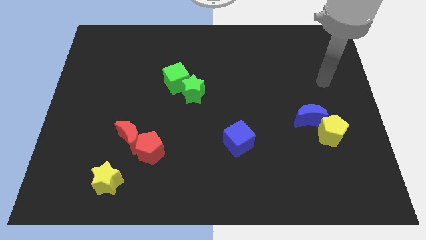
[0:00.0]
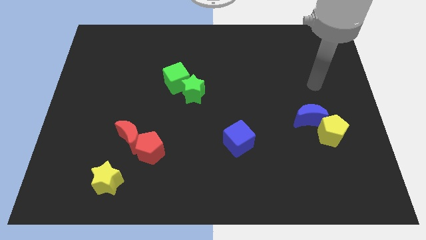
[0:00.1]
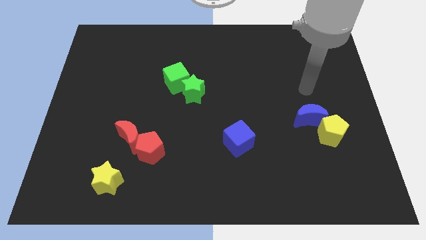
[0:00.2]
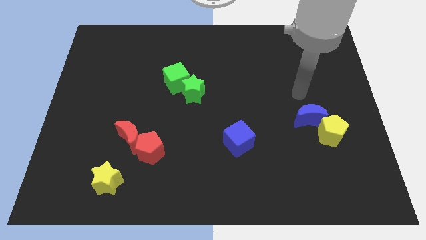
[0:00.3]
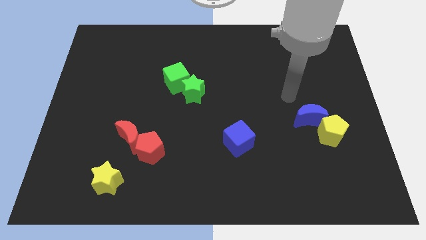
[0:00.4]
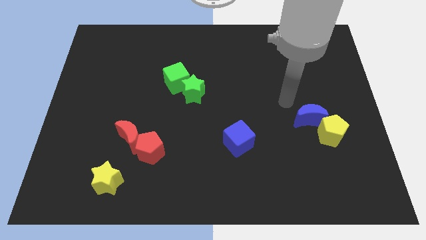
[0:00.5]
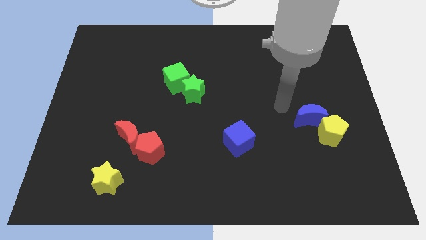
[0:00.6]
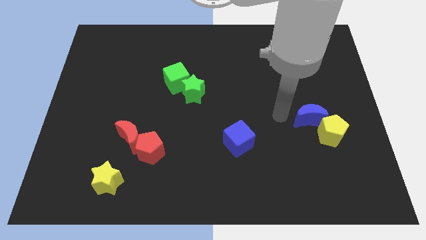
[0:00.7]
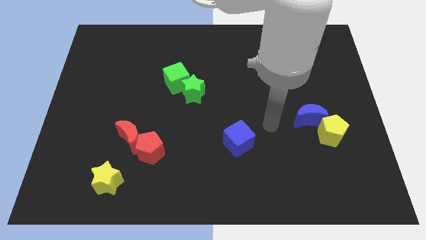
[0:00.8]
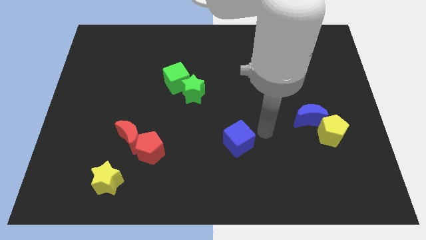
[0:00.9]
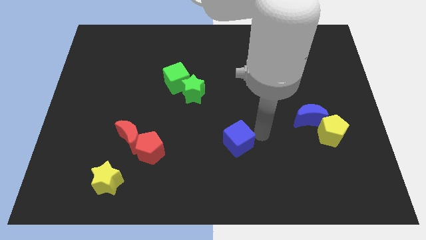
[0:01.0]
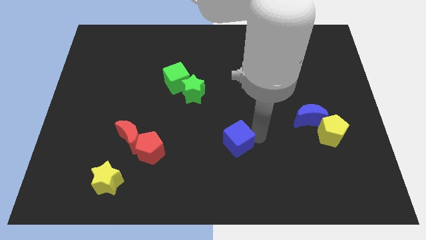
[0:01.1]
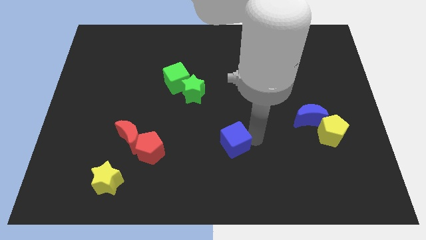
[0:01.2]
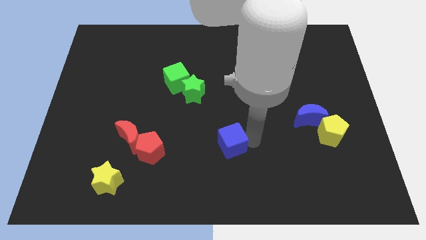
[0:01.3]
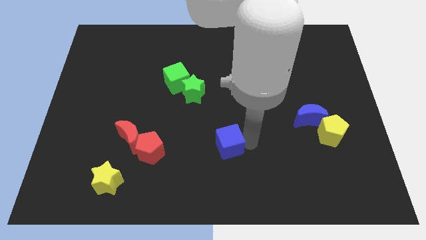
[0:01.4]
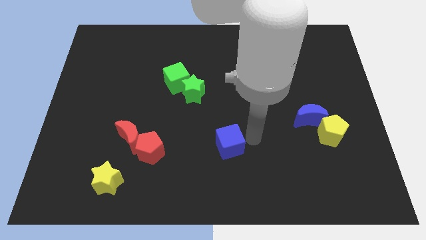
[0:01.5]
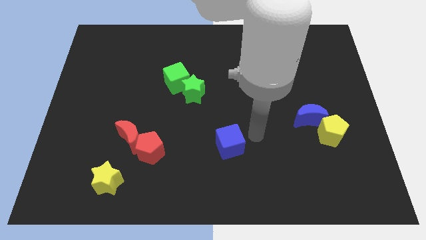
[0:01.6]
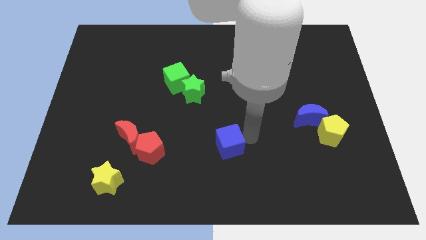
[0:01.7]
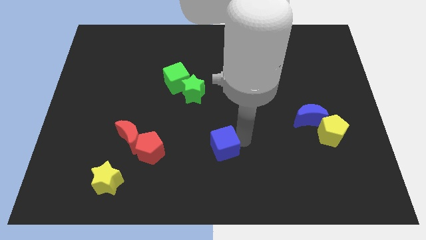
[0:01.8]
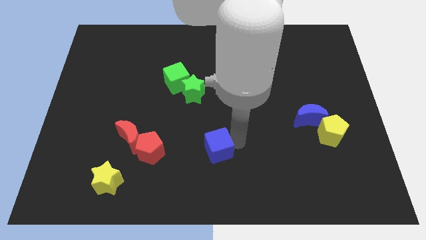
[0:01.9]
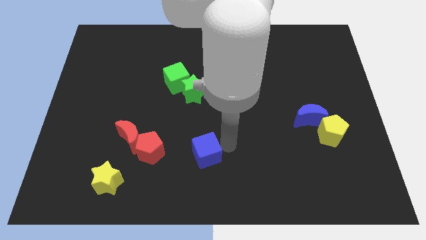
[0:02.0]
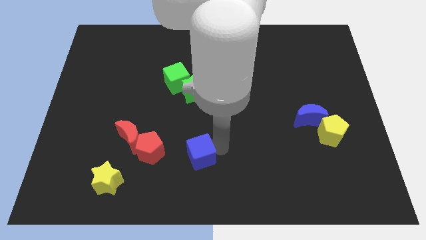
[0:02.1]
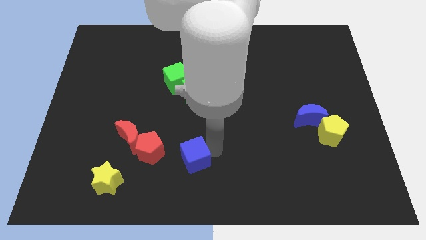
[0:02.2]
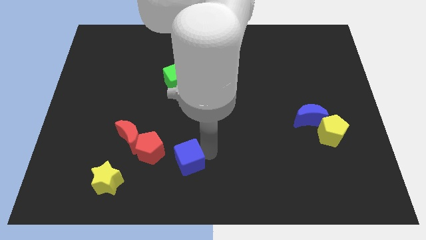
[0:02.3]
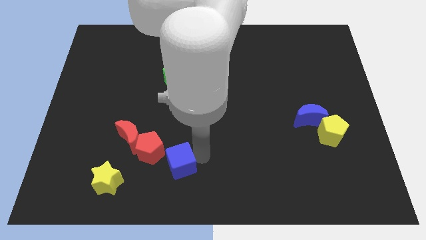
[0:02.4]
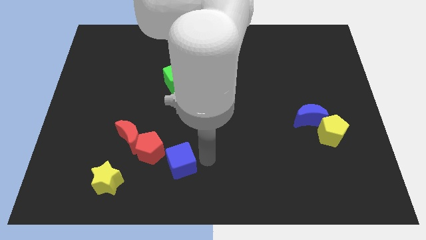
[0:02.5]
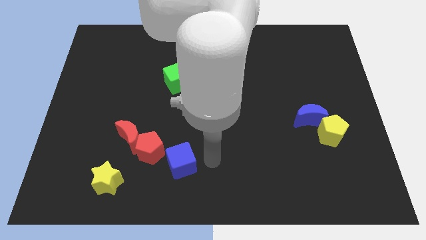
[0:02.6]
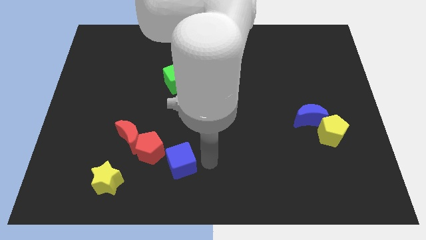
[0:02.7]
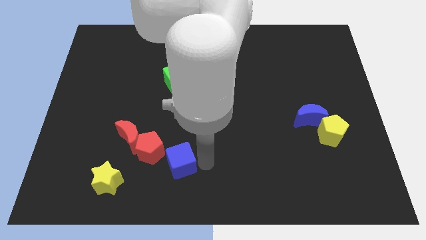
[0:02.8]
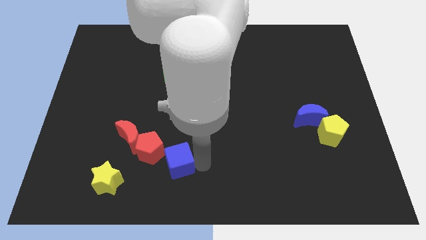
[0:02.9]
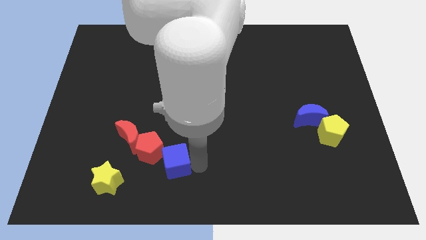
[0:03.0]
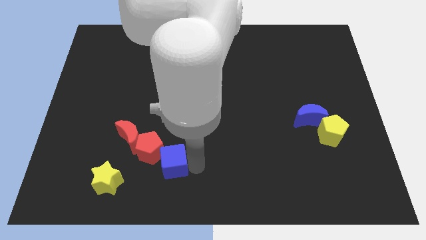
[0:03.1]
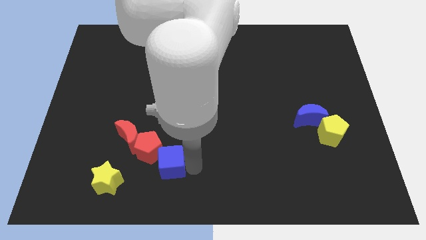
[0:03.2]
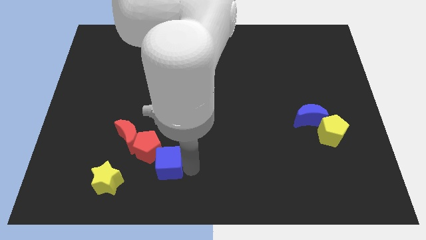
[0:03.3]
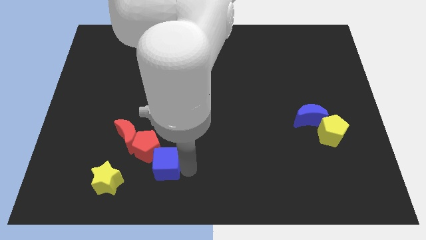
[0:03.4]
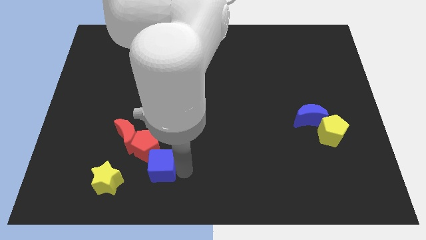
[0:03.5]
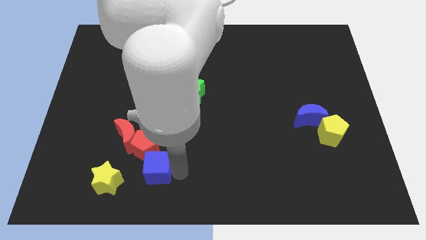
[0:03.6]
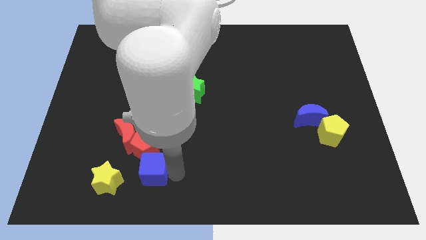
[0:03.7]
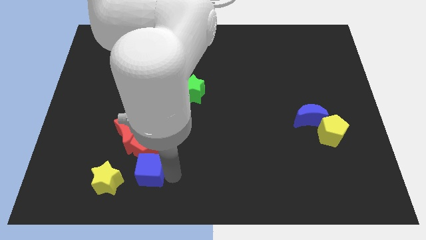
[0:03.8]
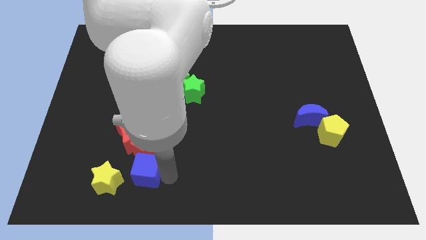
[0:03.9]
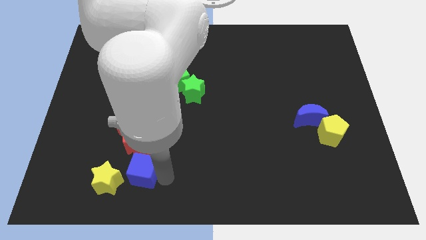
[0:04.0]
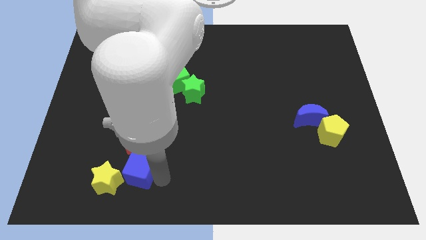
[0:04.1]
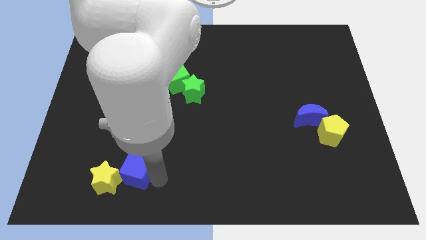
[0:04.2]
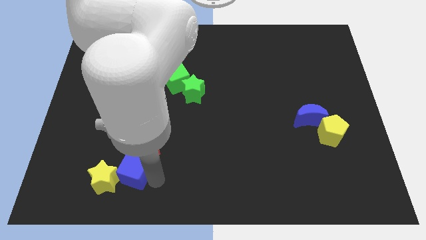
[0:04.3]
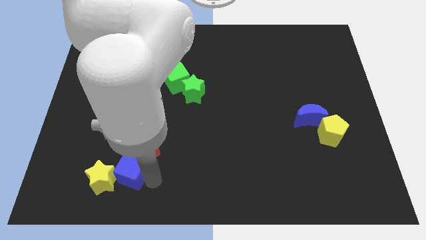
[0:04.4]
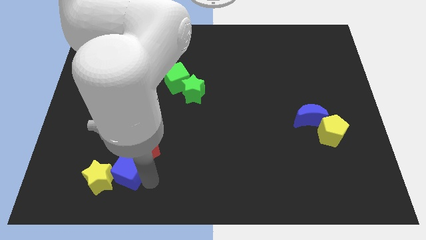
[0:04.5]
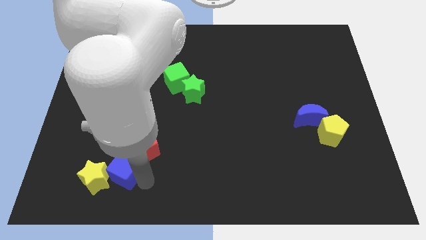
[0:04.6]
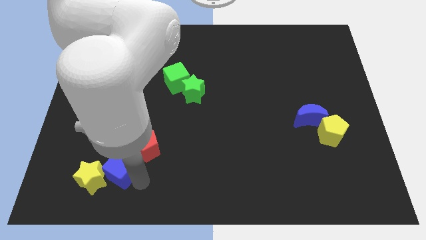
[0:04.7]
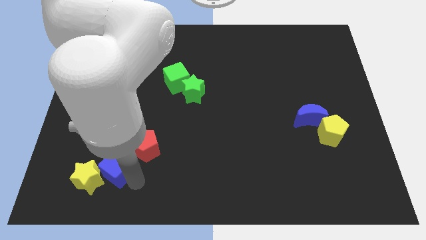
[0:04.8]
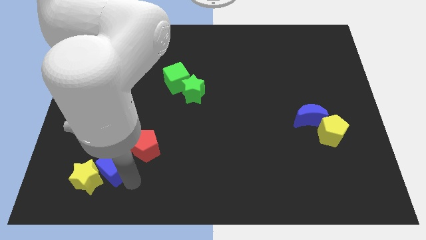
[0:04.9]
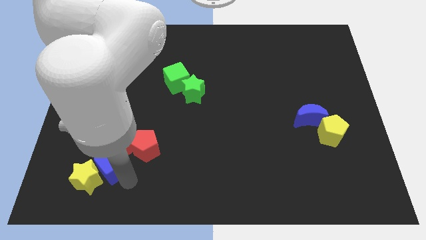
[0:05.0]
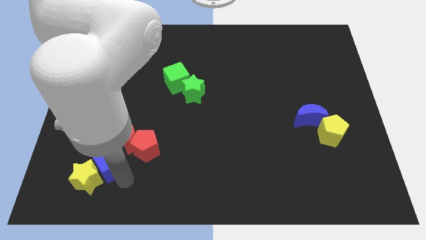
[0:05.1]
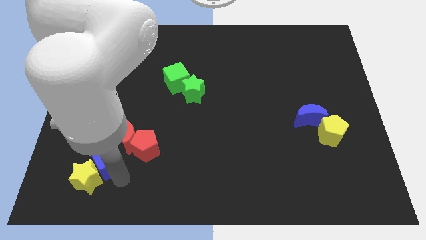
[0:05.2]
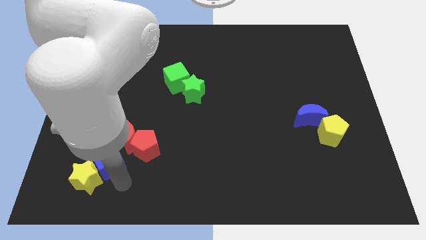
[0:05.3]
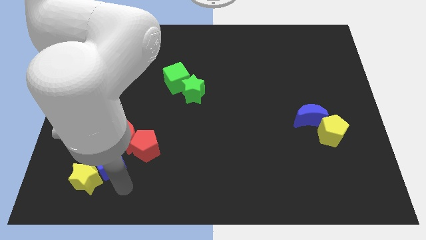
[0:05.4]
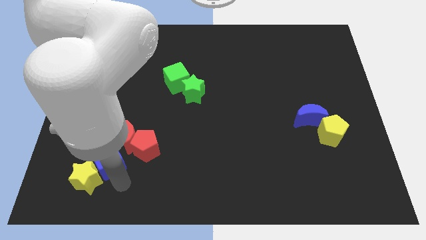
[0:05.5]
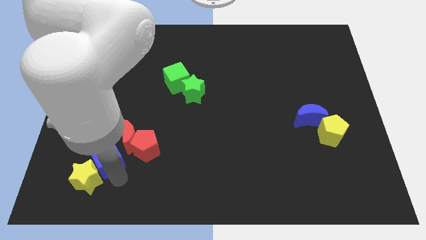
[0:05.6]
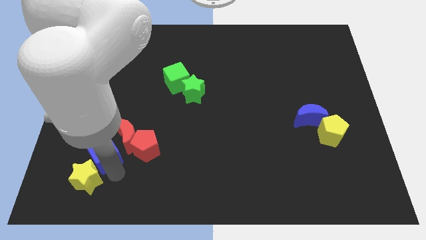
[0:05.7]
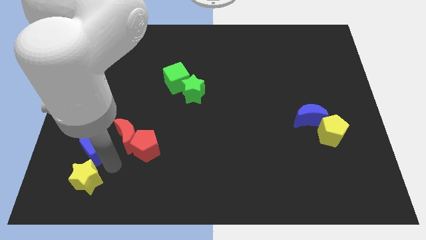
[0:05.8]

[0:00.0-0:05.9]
push the blue cube to the left side of the red moon

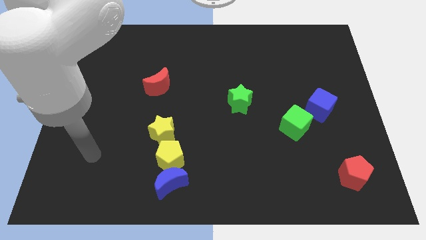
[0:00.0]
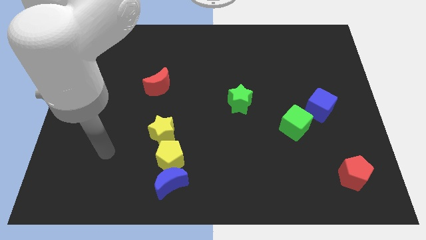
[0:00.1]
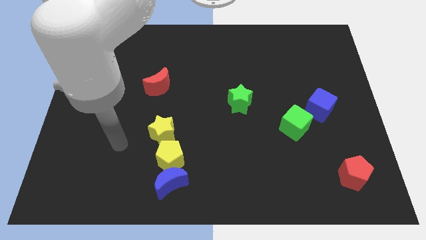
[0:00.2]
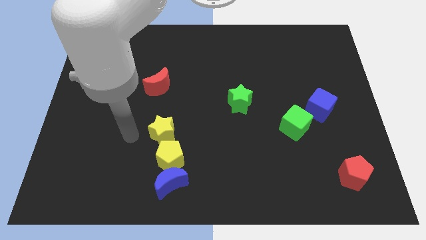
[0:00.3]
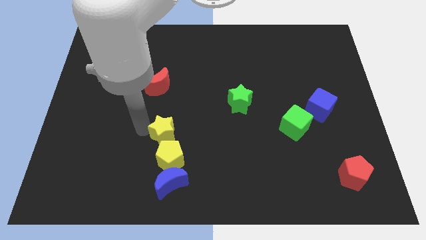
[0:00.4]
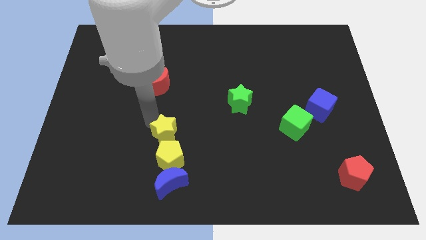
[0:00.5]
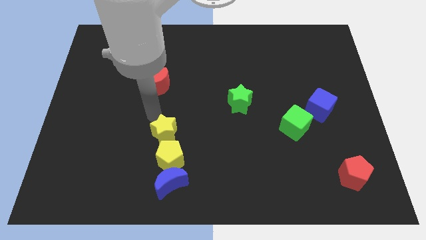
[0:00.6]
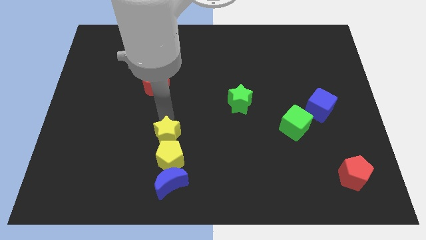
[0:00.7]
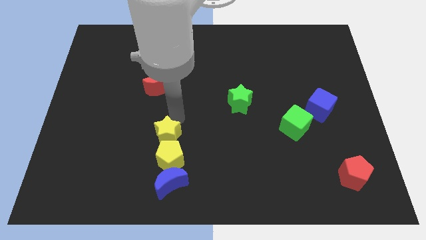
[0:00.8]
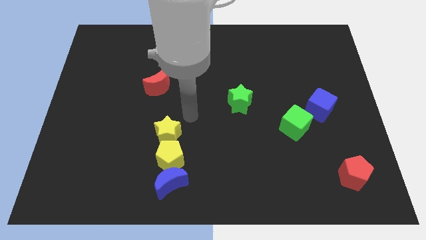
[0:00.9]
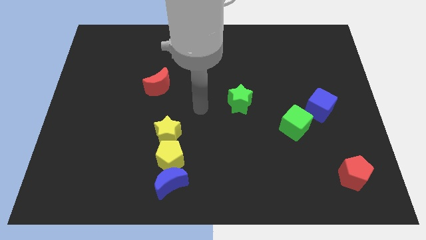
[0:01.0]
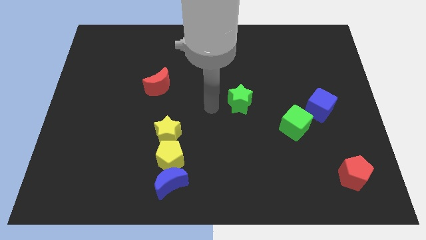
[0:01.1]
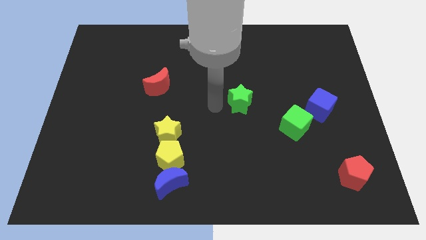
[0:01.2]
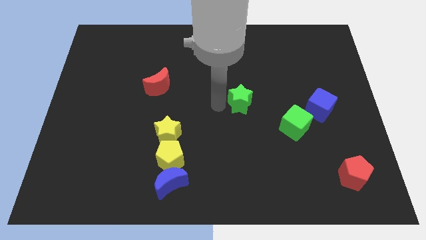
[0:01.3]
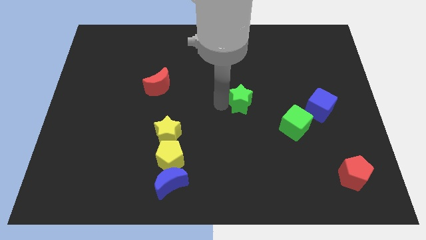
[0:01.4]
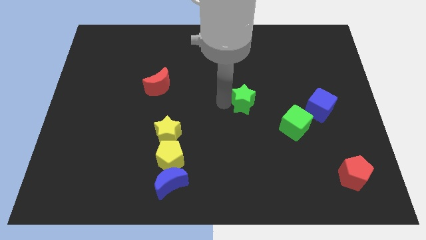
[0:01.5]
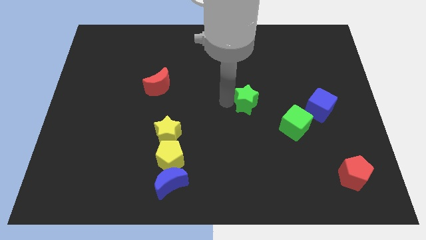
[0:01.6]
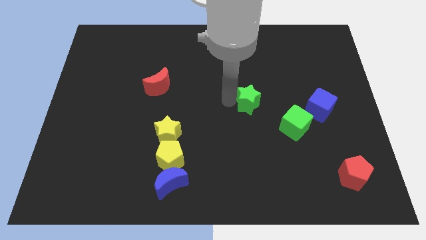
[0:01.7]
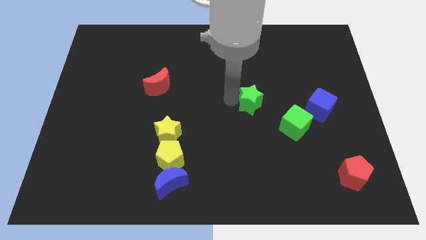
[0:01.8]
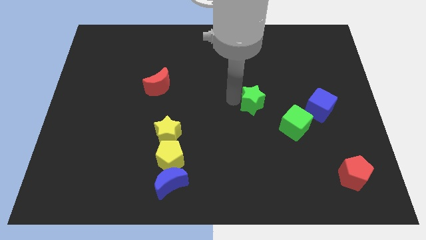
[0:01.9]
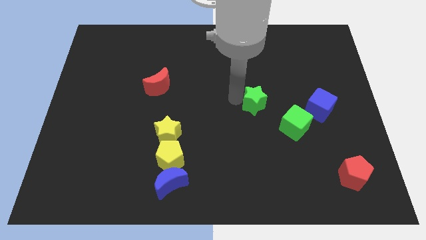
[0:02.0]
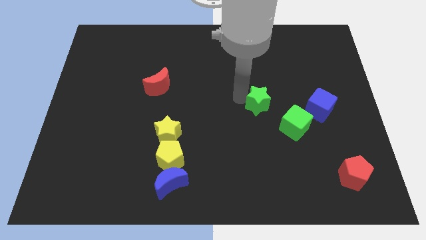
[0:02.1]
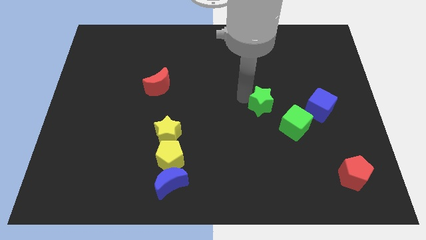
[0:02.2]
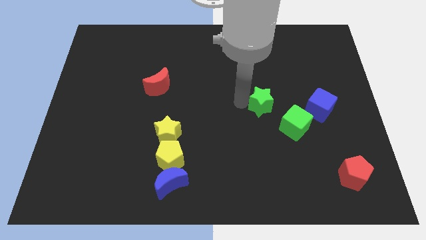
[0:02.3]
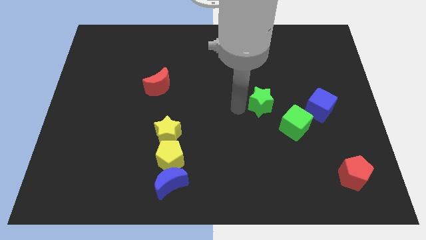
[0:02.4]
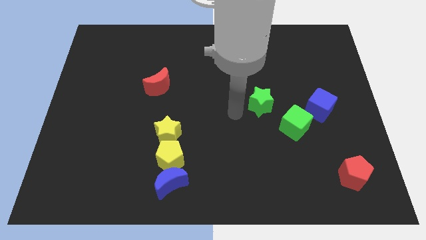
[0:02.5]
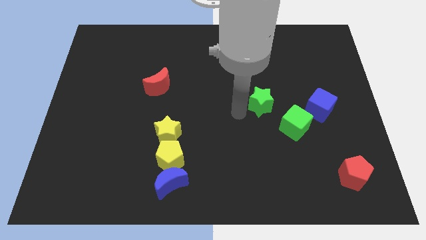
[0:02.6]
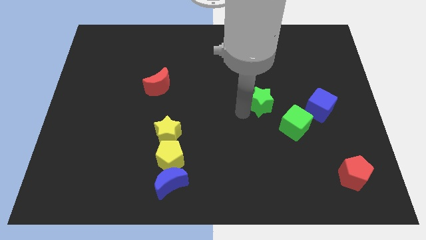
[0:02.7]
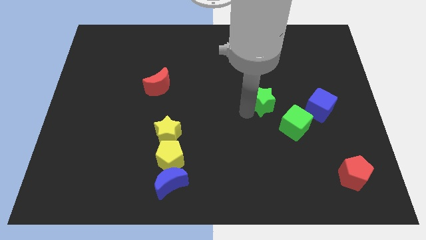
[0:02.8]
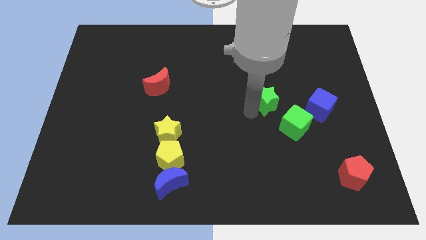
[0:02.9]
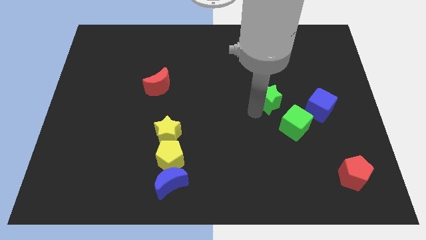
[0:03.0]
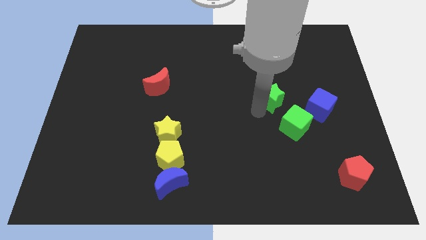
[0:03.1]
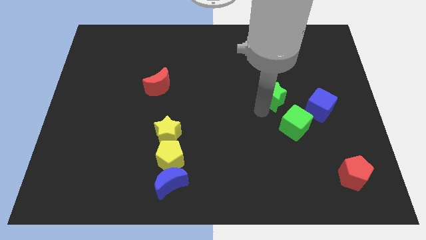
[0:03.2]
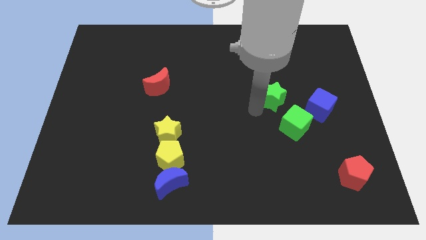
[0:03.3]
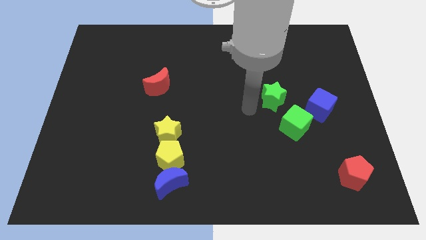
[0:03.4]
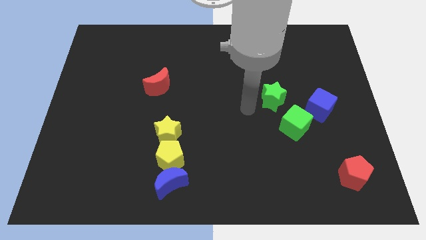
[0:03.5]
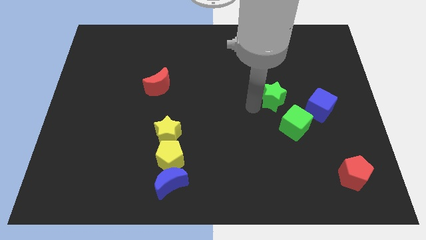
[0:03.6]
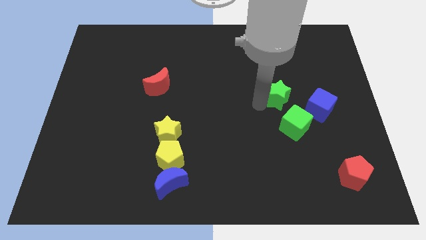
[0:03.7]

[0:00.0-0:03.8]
put the green star to the top left side of the blue cube
